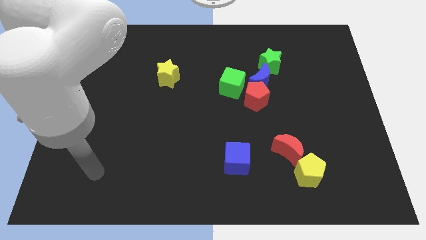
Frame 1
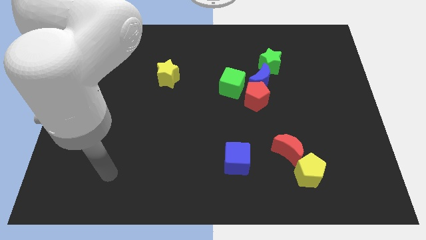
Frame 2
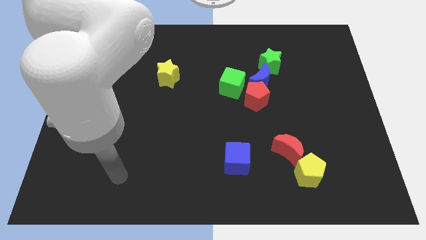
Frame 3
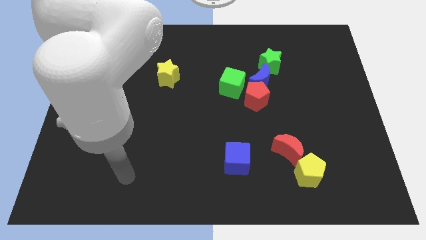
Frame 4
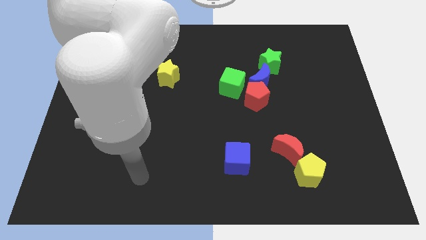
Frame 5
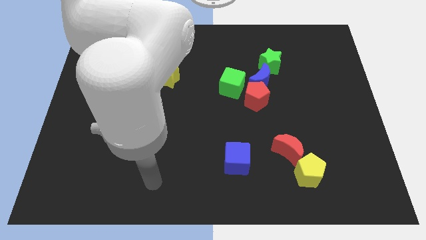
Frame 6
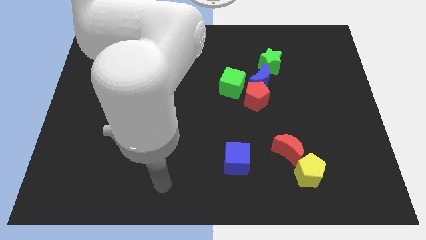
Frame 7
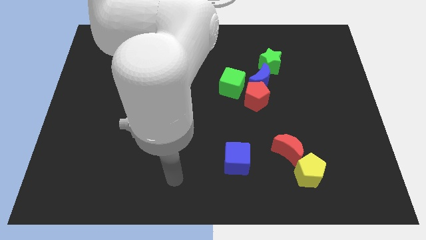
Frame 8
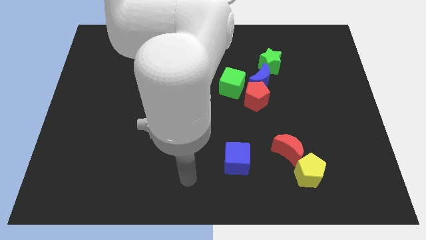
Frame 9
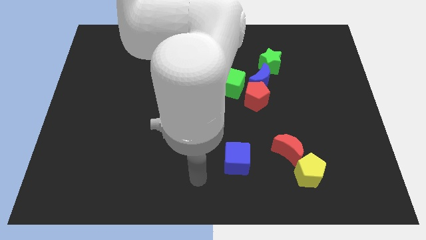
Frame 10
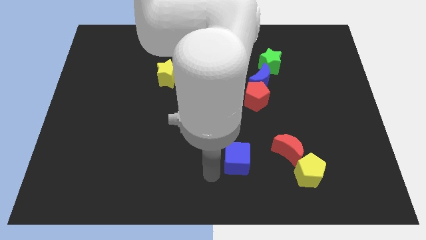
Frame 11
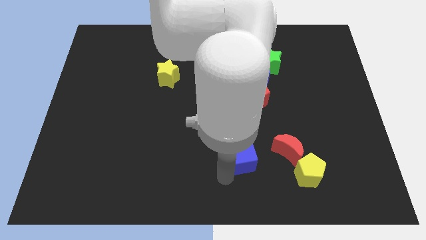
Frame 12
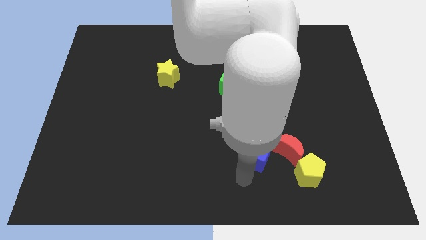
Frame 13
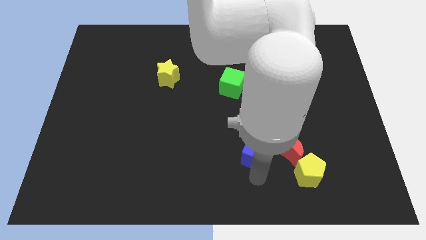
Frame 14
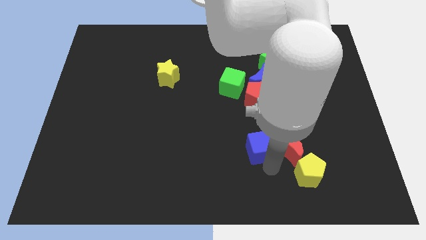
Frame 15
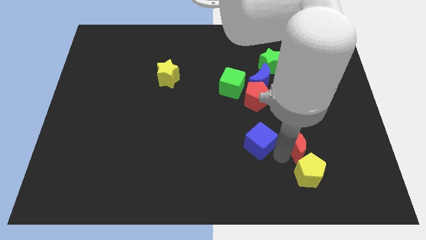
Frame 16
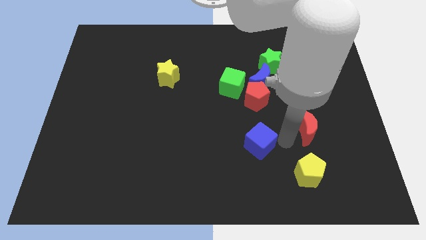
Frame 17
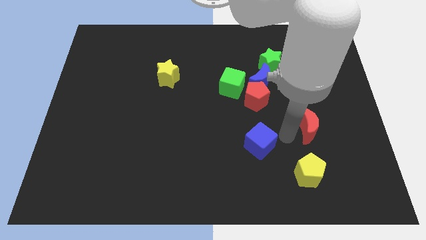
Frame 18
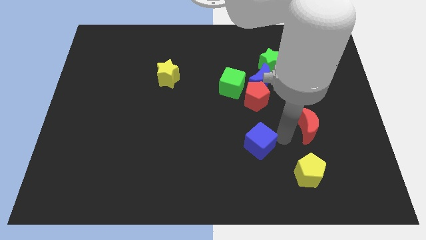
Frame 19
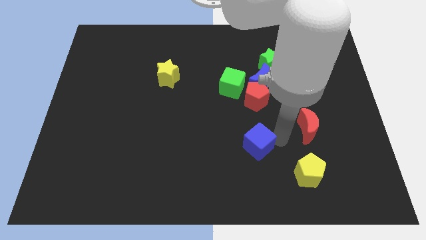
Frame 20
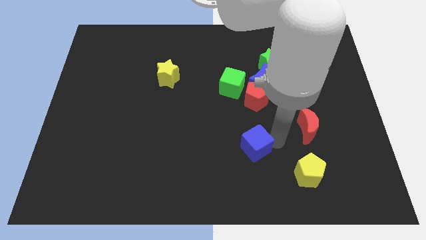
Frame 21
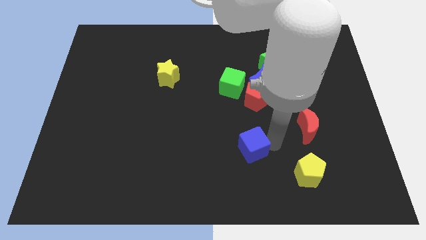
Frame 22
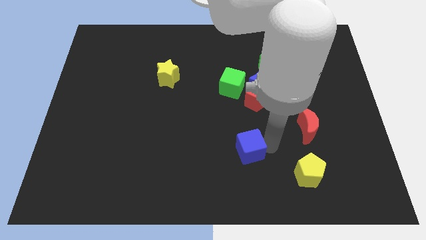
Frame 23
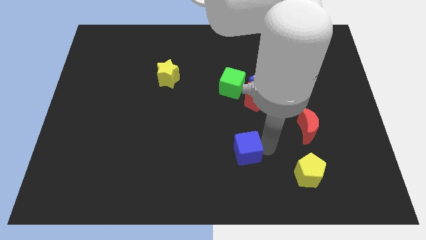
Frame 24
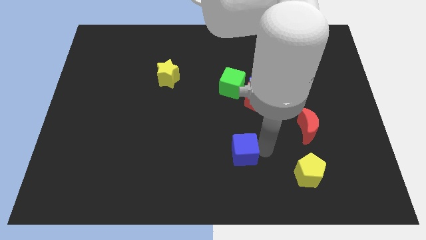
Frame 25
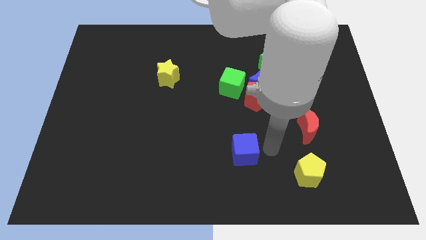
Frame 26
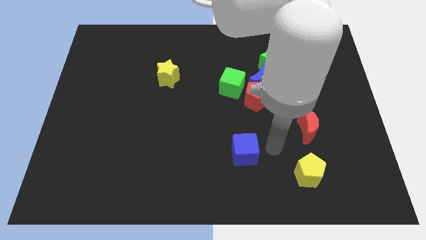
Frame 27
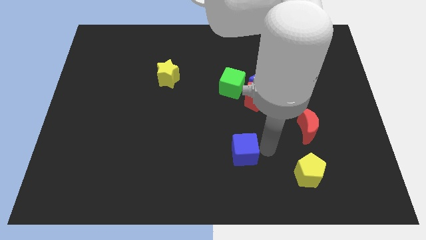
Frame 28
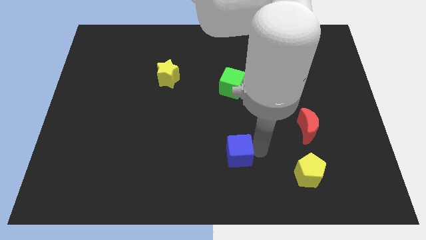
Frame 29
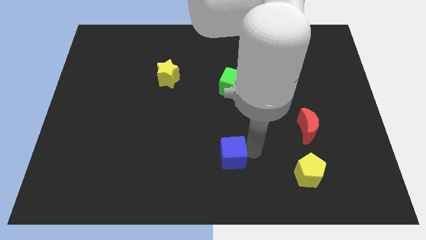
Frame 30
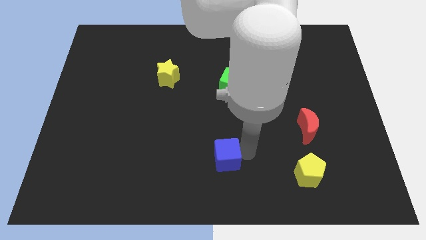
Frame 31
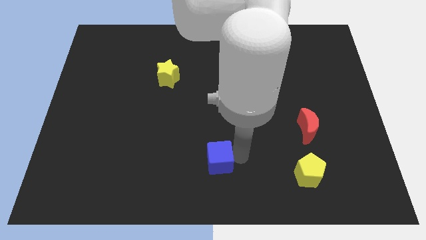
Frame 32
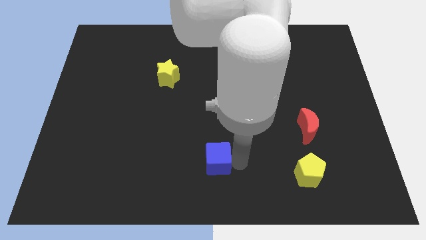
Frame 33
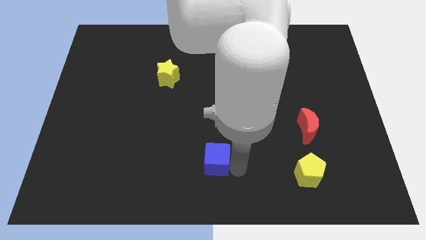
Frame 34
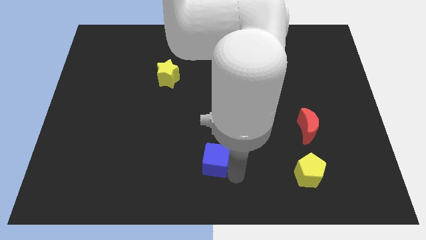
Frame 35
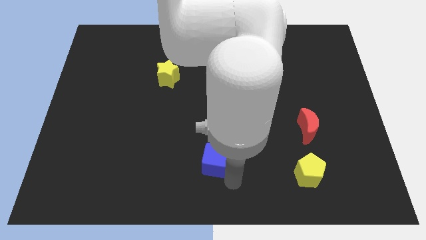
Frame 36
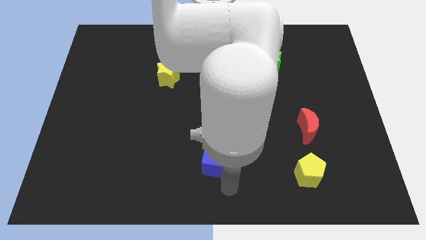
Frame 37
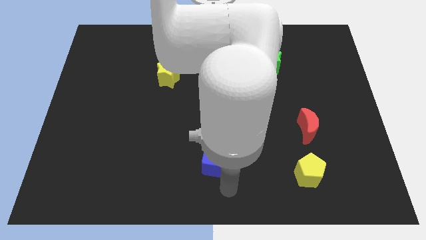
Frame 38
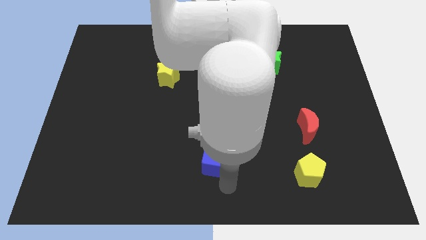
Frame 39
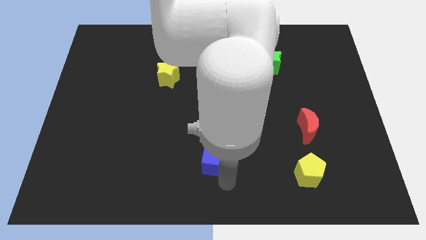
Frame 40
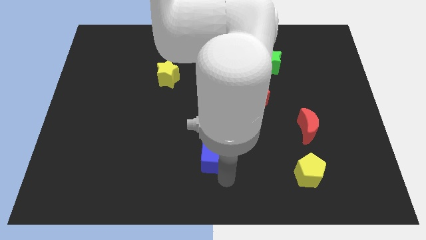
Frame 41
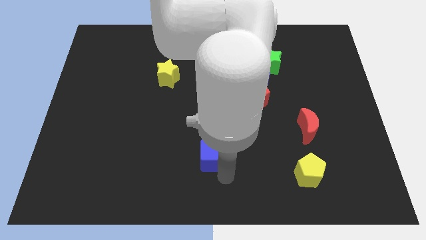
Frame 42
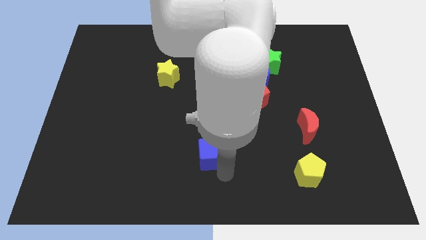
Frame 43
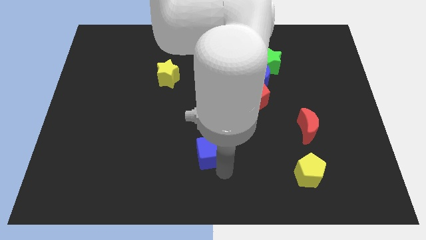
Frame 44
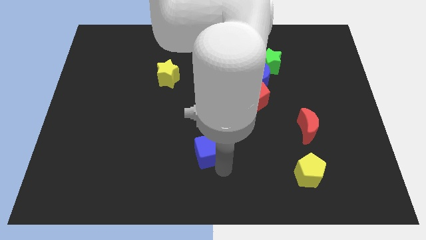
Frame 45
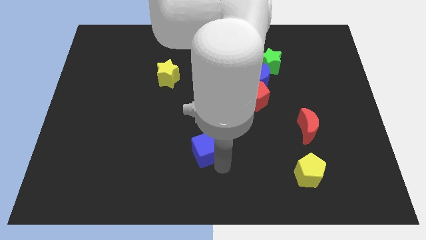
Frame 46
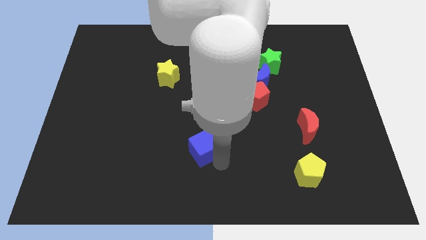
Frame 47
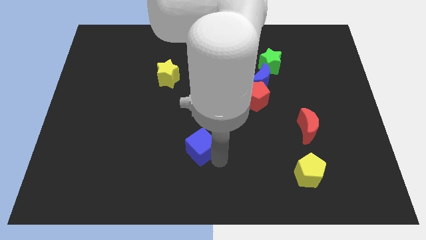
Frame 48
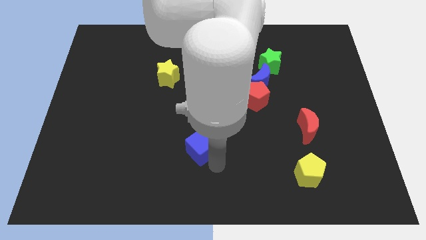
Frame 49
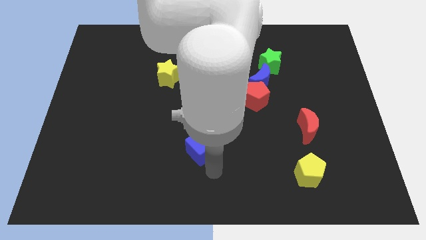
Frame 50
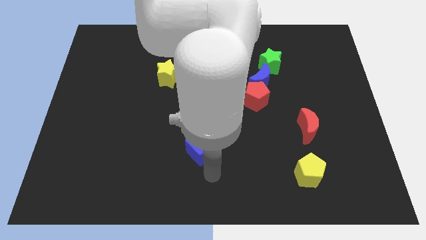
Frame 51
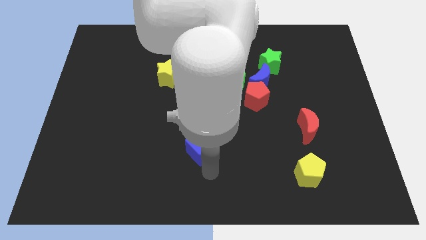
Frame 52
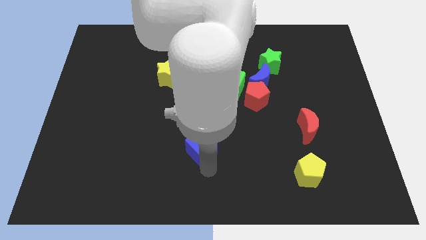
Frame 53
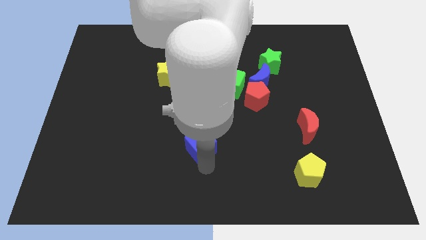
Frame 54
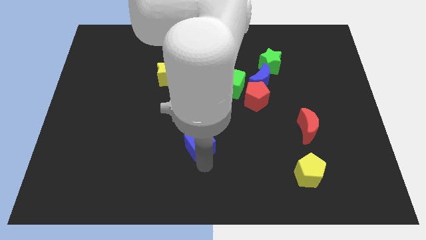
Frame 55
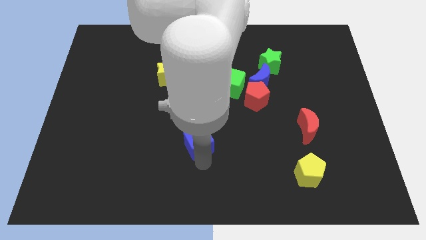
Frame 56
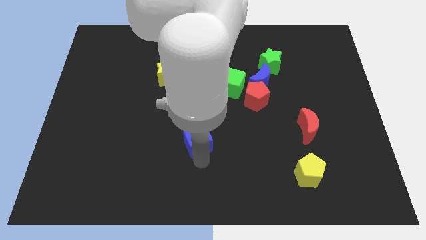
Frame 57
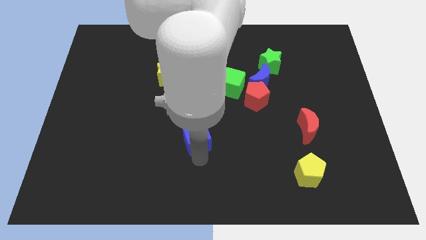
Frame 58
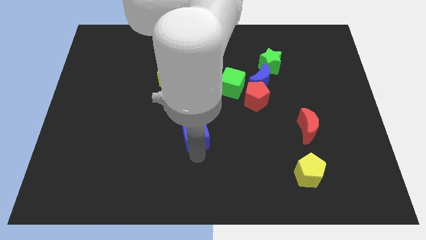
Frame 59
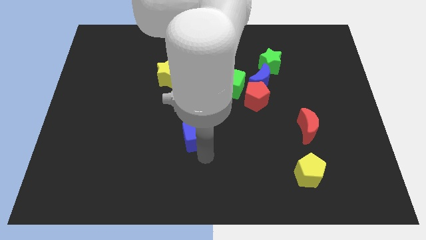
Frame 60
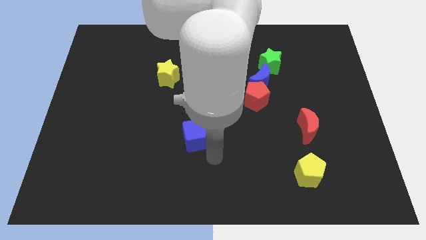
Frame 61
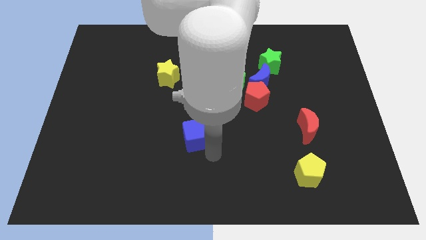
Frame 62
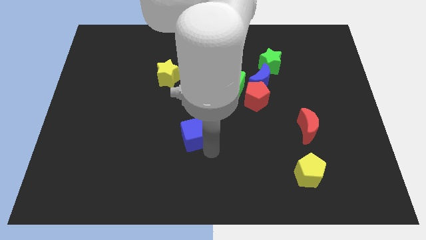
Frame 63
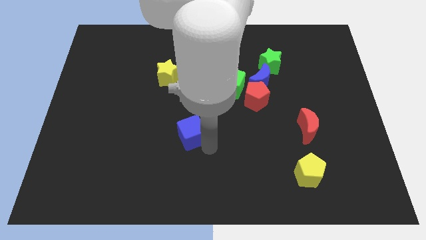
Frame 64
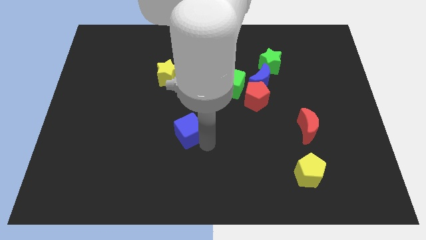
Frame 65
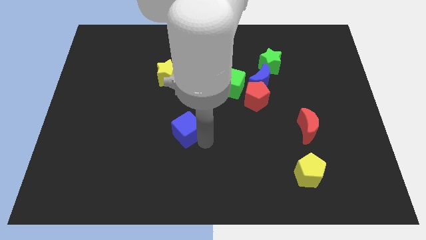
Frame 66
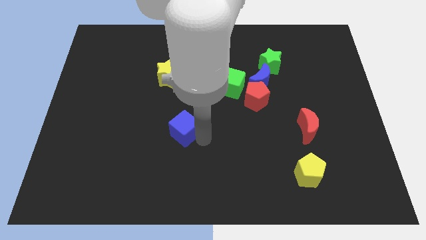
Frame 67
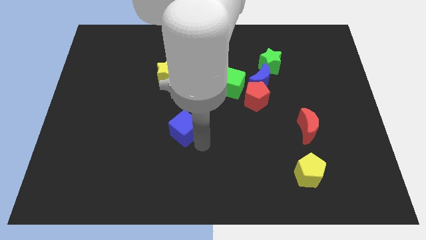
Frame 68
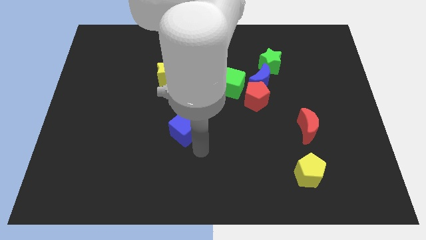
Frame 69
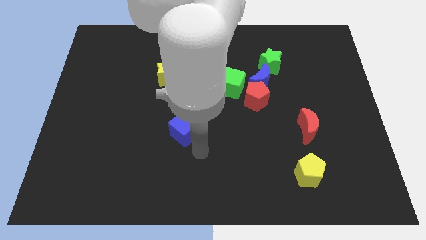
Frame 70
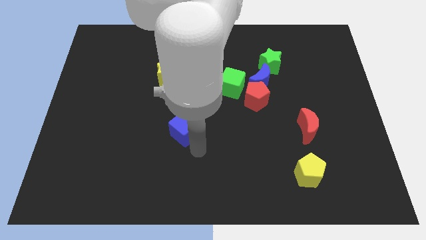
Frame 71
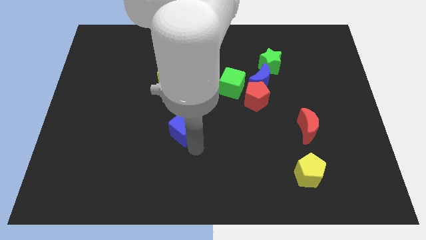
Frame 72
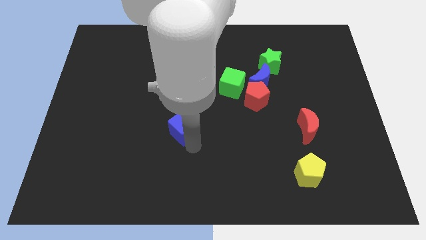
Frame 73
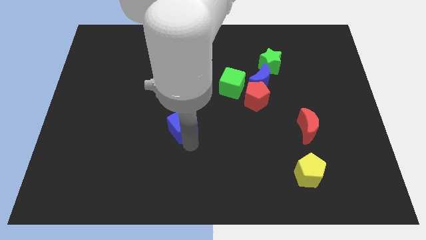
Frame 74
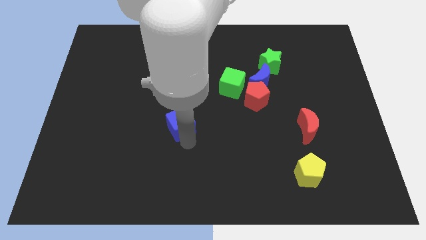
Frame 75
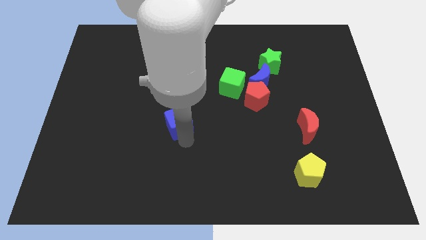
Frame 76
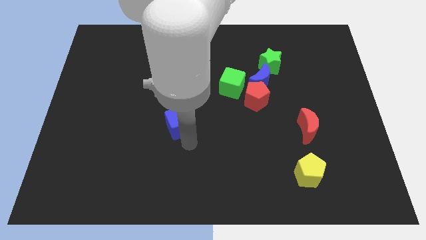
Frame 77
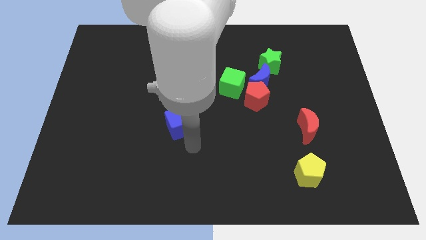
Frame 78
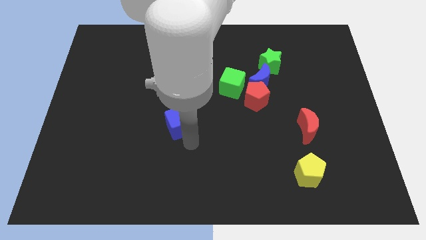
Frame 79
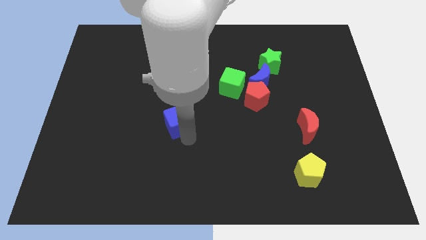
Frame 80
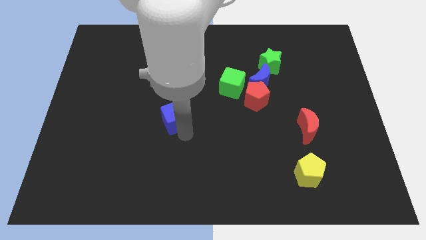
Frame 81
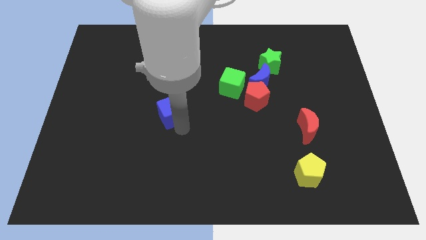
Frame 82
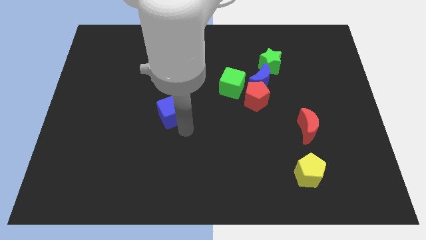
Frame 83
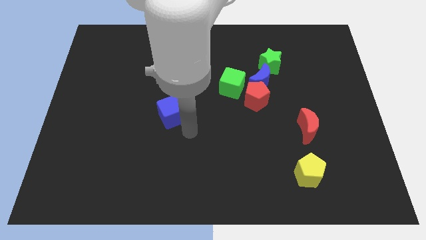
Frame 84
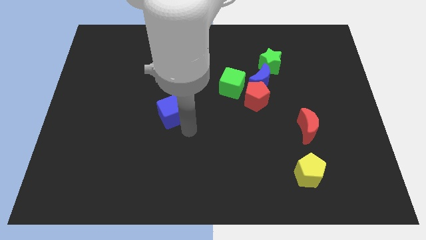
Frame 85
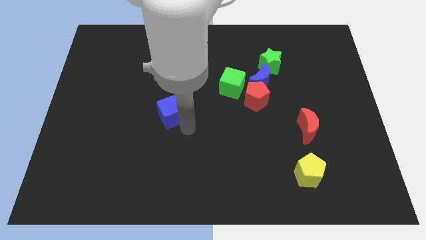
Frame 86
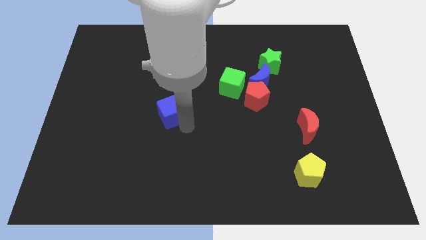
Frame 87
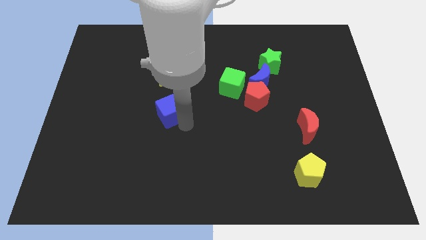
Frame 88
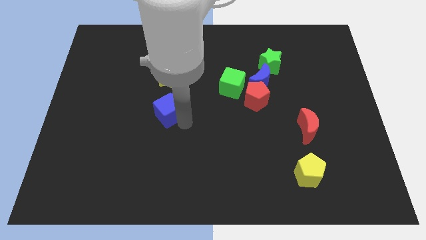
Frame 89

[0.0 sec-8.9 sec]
move the blue cube upwards and left
